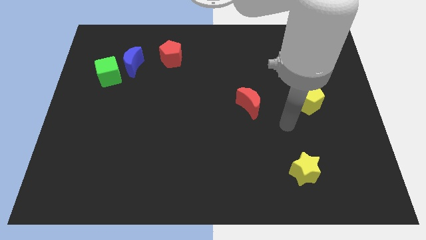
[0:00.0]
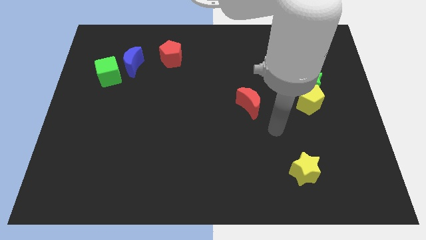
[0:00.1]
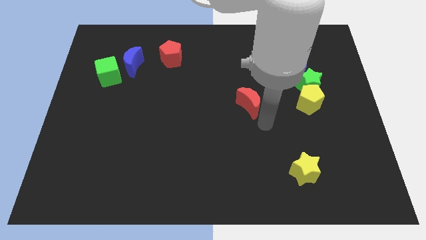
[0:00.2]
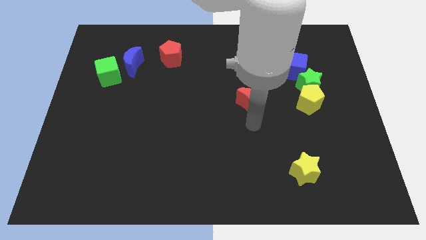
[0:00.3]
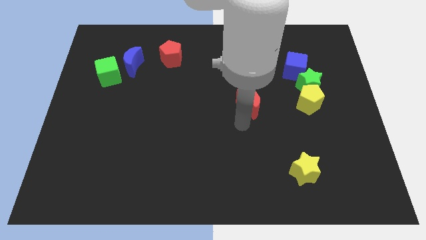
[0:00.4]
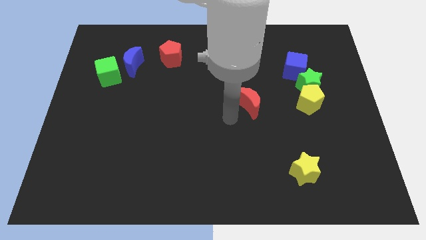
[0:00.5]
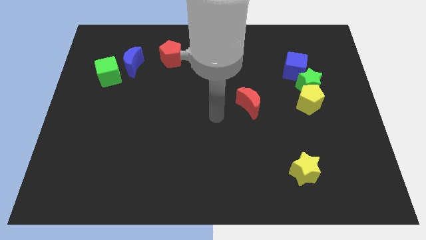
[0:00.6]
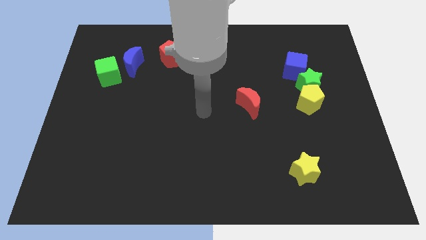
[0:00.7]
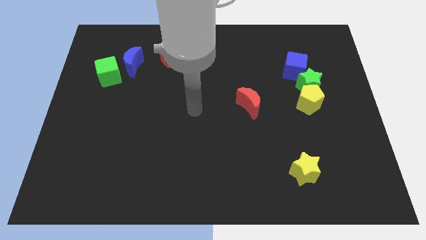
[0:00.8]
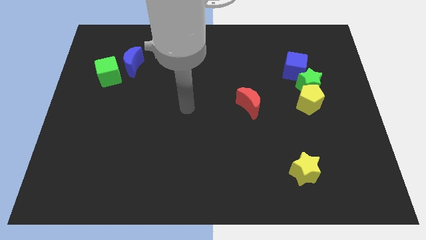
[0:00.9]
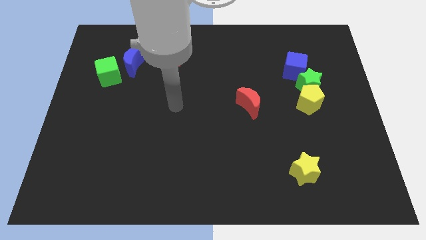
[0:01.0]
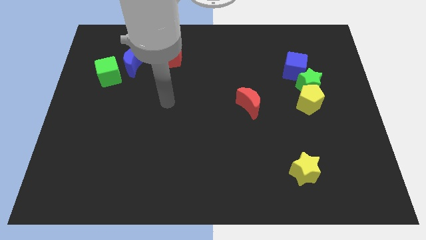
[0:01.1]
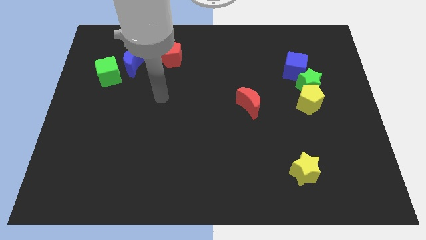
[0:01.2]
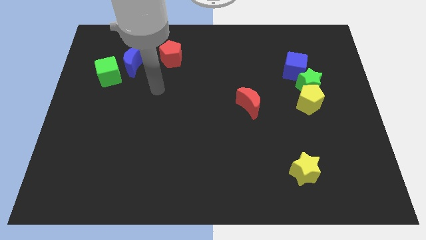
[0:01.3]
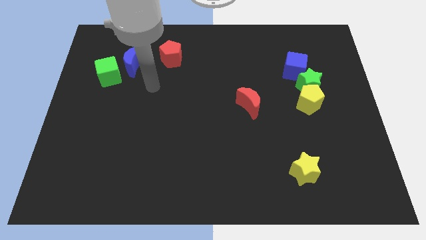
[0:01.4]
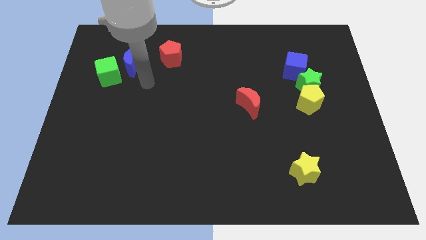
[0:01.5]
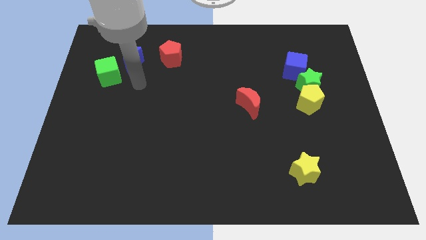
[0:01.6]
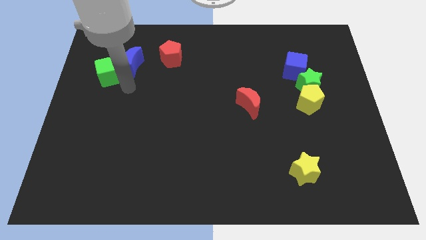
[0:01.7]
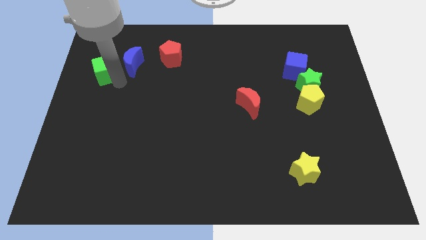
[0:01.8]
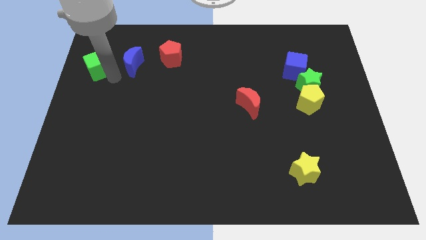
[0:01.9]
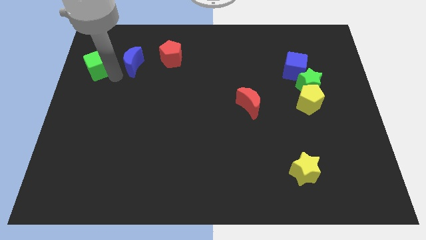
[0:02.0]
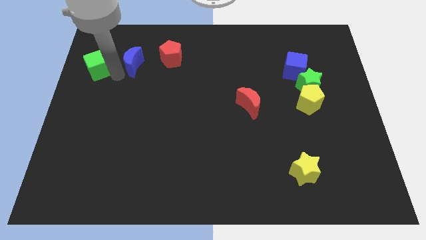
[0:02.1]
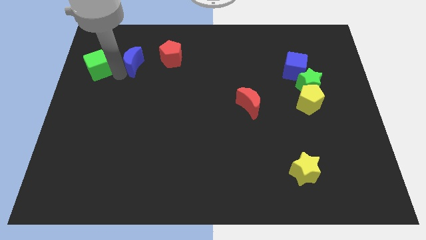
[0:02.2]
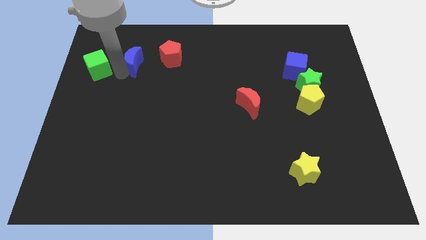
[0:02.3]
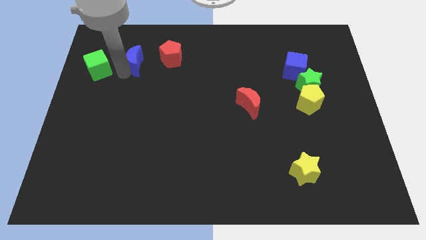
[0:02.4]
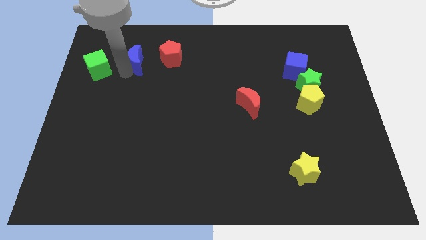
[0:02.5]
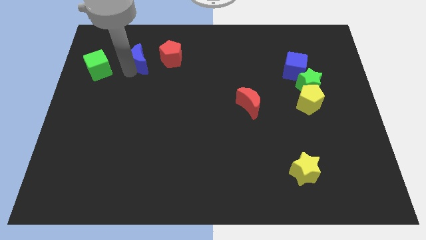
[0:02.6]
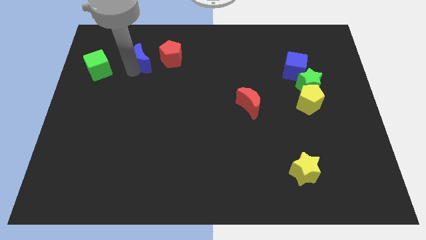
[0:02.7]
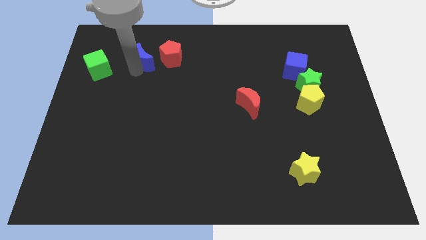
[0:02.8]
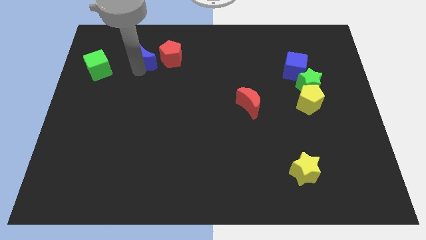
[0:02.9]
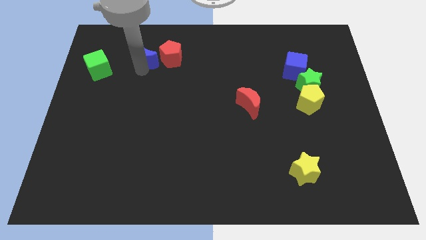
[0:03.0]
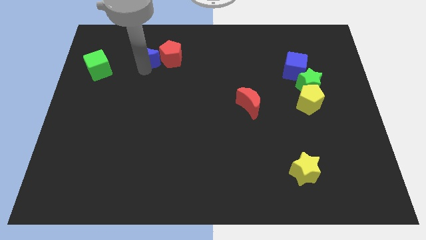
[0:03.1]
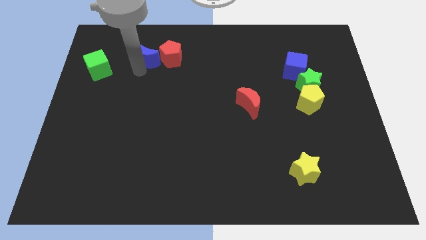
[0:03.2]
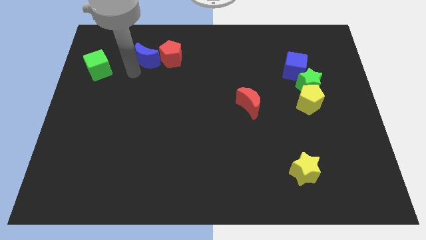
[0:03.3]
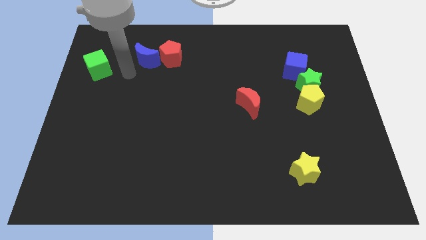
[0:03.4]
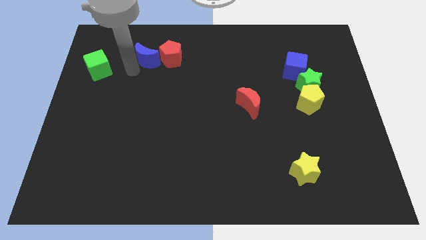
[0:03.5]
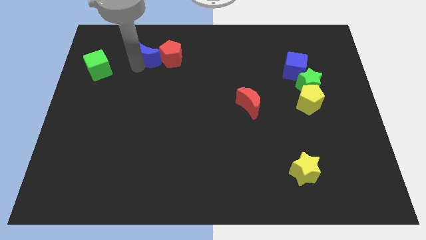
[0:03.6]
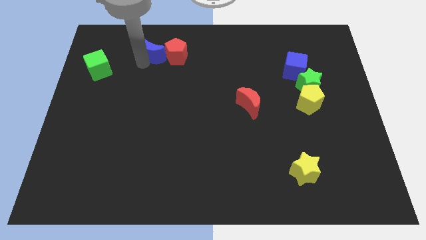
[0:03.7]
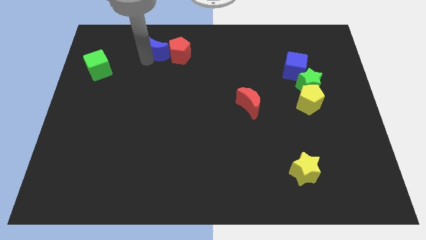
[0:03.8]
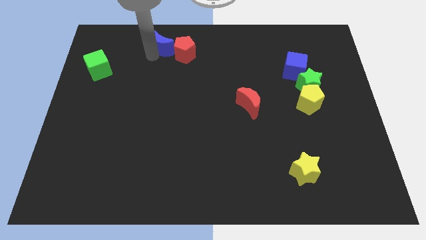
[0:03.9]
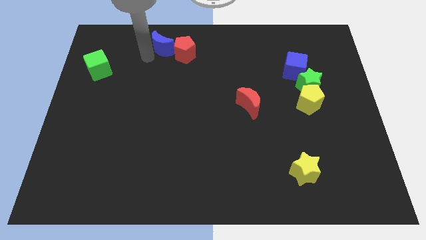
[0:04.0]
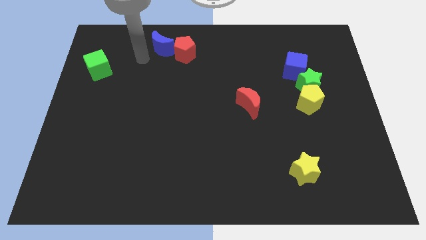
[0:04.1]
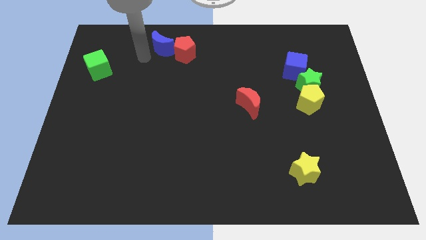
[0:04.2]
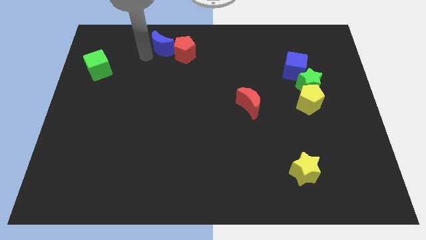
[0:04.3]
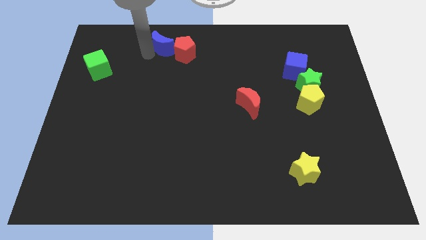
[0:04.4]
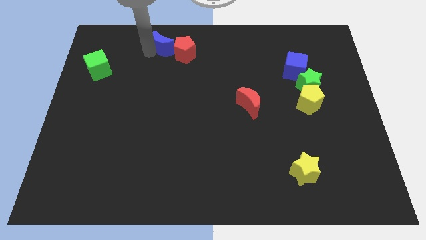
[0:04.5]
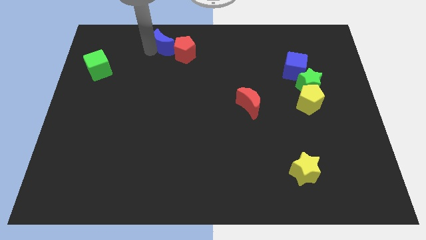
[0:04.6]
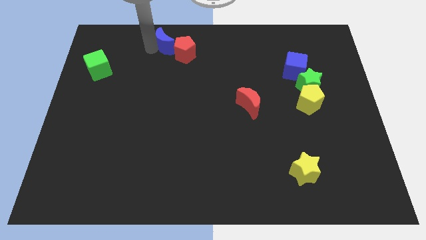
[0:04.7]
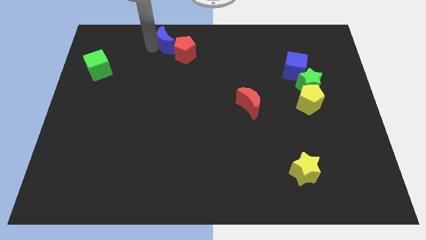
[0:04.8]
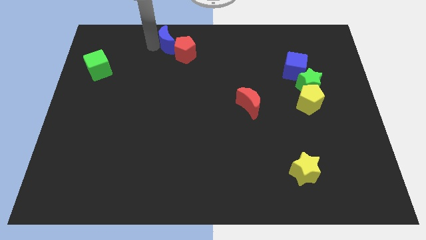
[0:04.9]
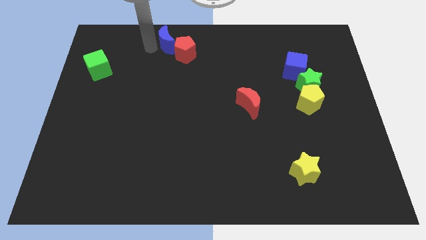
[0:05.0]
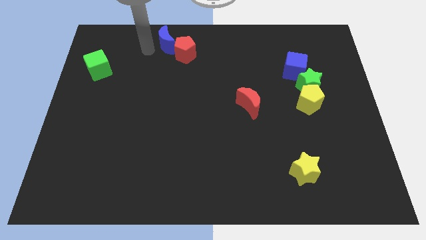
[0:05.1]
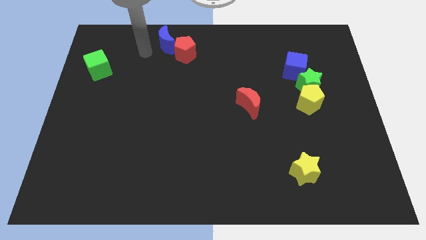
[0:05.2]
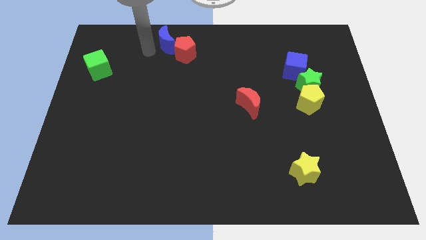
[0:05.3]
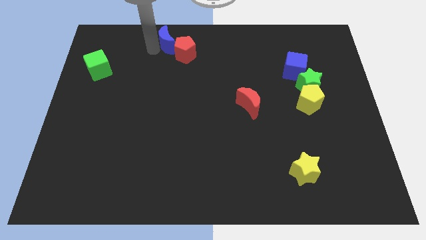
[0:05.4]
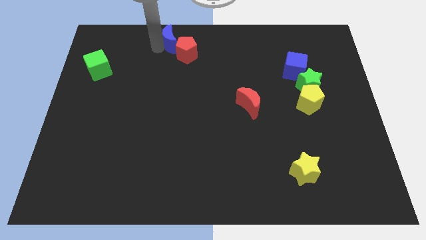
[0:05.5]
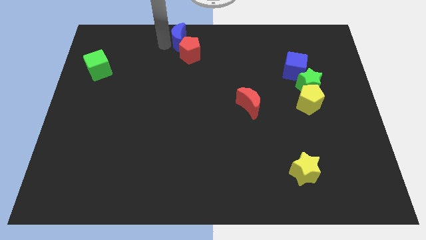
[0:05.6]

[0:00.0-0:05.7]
push the blue moon to the top side

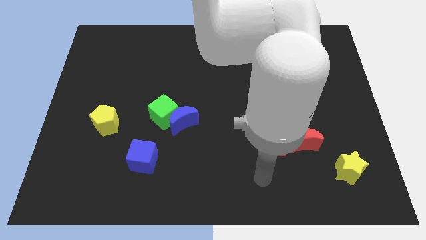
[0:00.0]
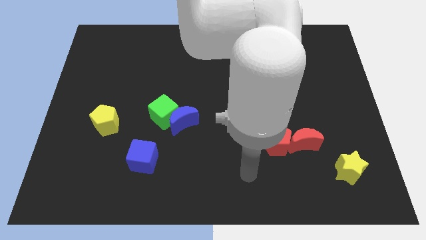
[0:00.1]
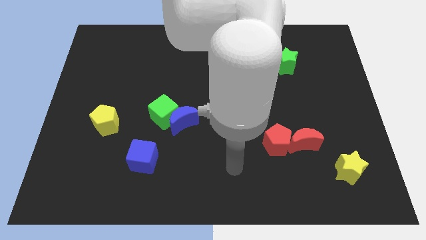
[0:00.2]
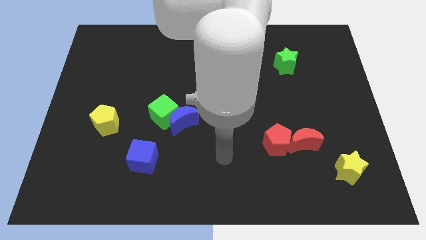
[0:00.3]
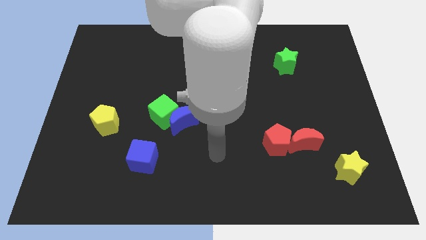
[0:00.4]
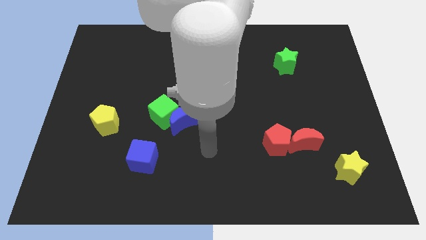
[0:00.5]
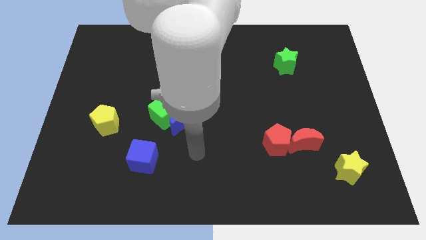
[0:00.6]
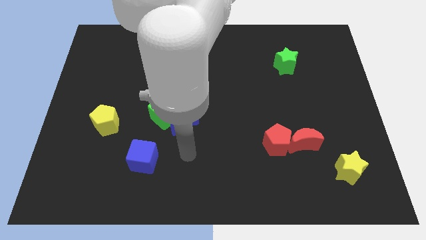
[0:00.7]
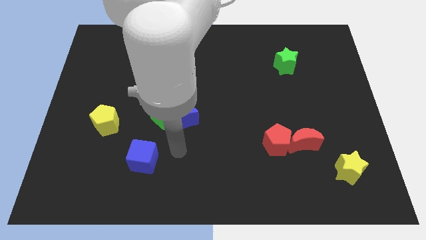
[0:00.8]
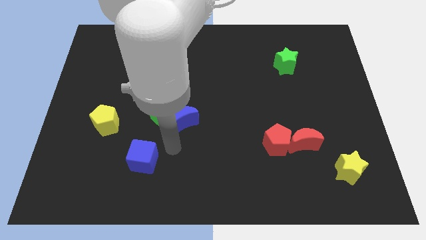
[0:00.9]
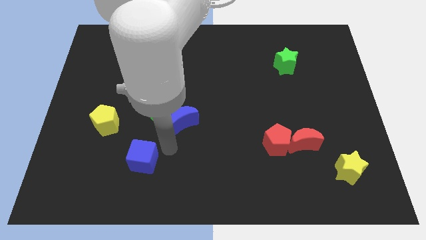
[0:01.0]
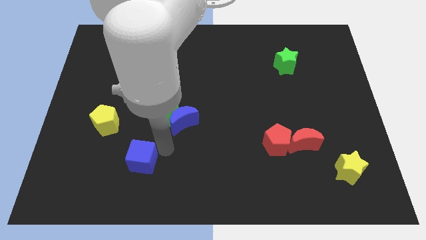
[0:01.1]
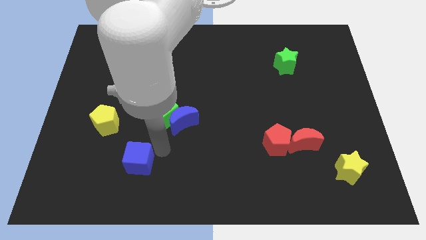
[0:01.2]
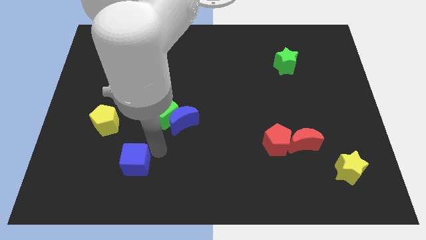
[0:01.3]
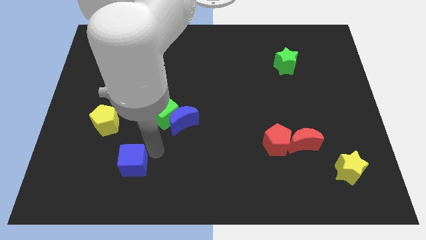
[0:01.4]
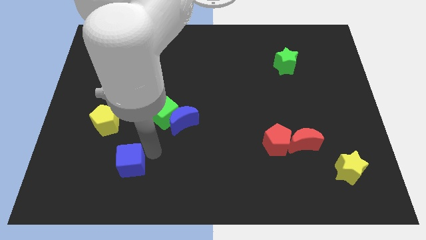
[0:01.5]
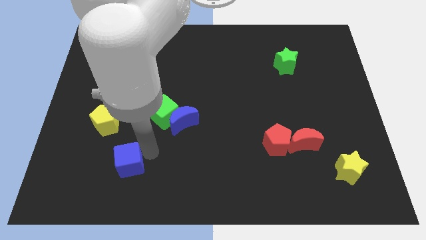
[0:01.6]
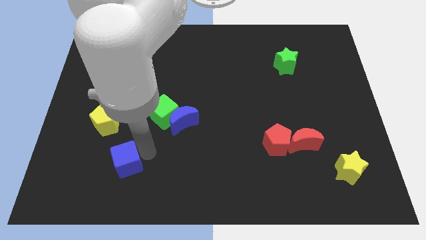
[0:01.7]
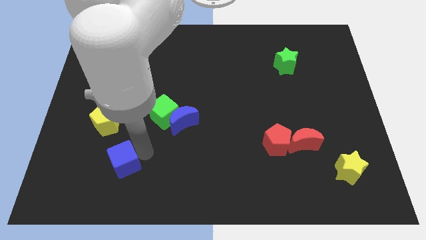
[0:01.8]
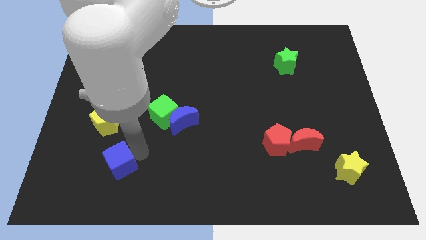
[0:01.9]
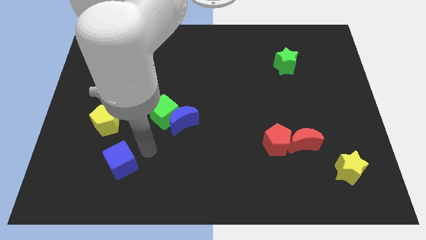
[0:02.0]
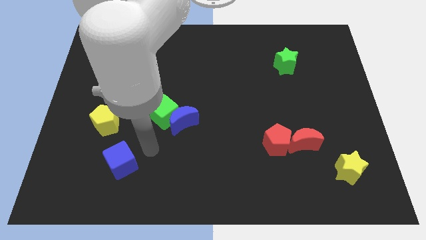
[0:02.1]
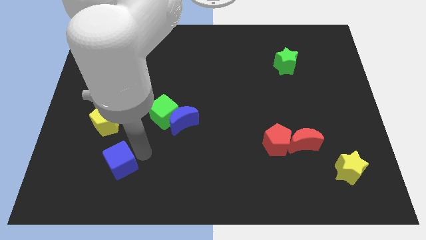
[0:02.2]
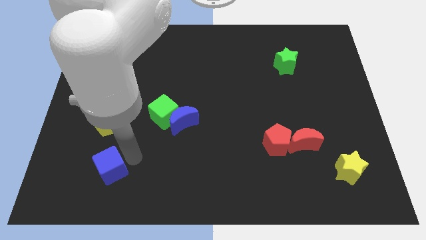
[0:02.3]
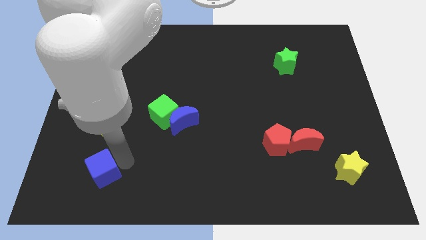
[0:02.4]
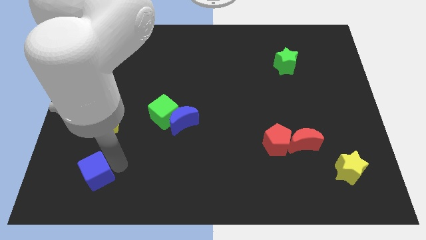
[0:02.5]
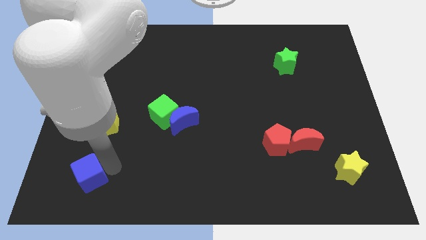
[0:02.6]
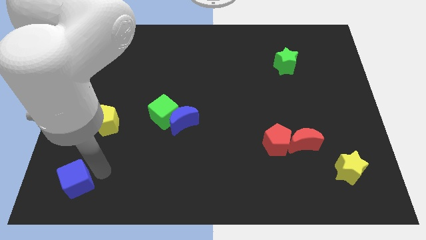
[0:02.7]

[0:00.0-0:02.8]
move the blue cube to the bottom left
